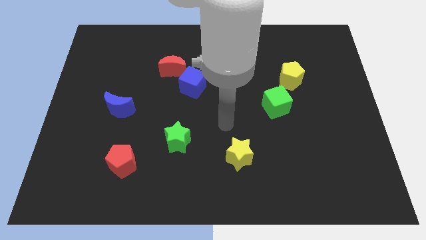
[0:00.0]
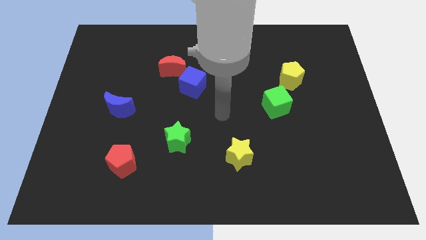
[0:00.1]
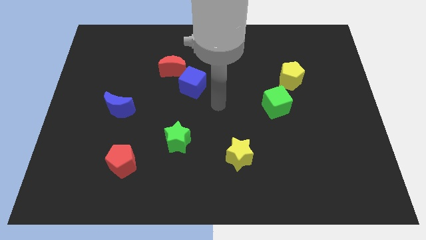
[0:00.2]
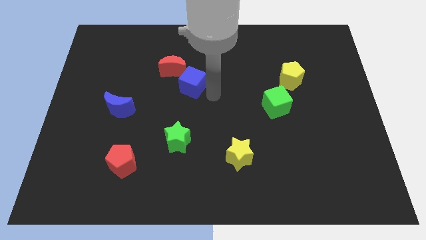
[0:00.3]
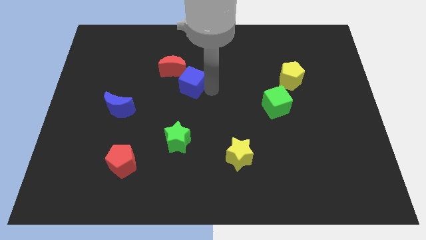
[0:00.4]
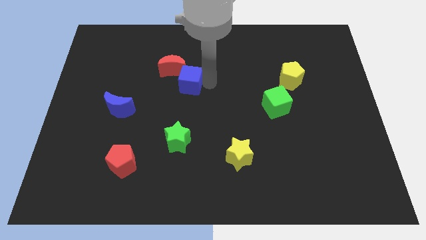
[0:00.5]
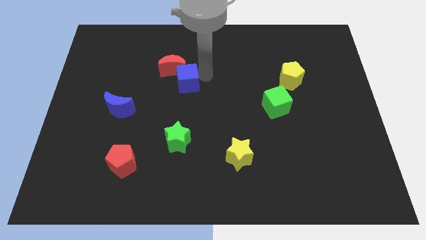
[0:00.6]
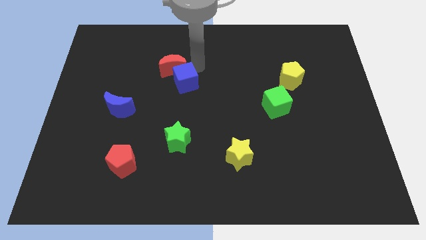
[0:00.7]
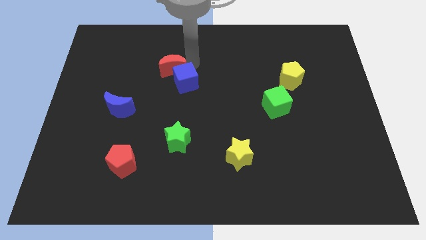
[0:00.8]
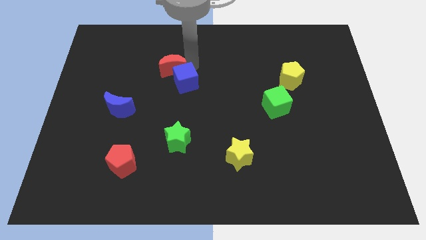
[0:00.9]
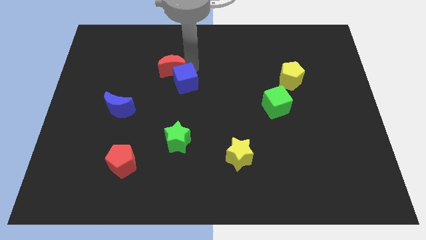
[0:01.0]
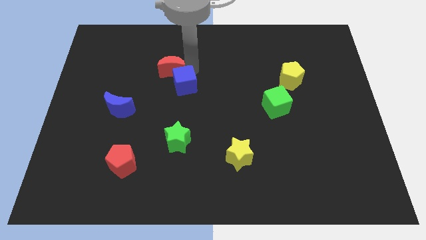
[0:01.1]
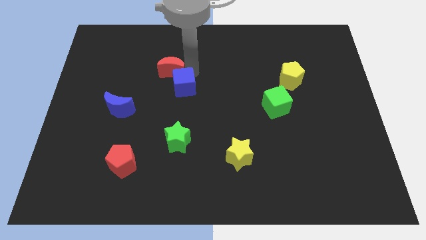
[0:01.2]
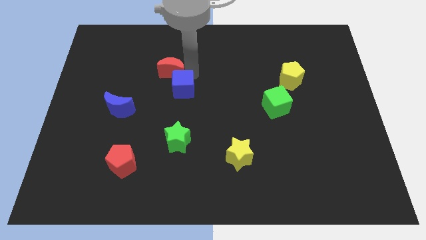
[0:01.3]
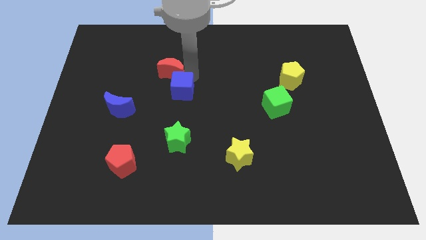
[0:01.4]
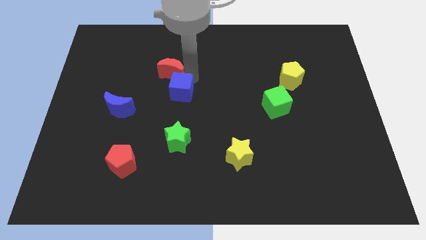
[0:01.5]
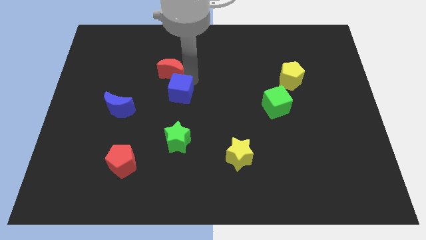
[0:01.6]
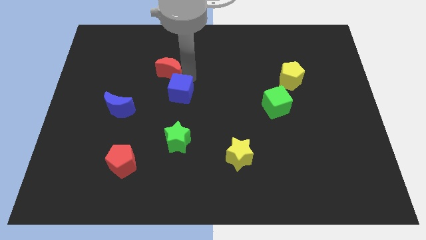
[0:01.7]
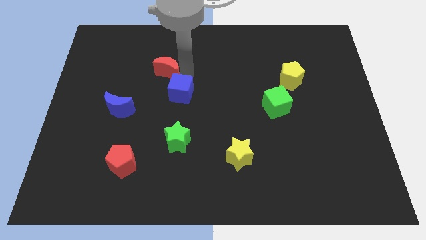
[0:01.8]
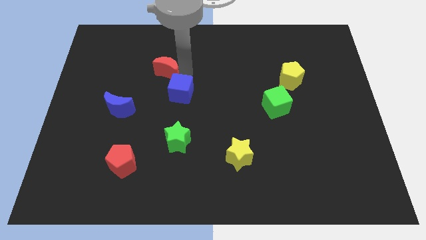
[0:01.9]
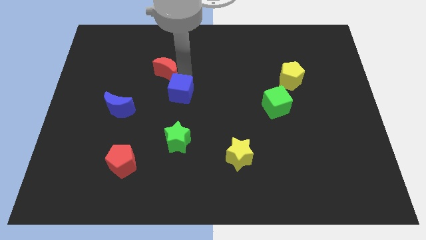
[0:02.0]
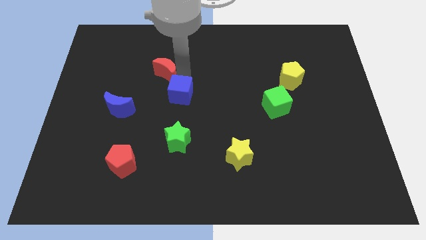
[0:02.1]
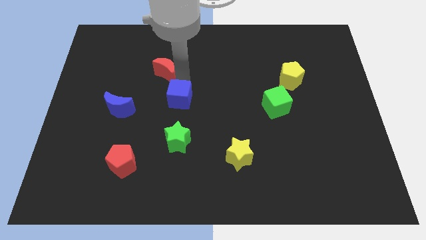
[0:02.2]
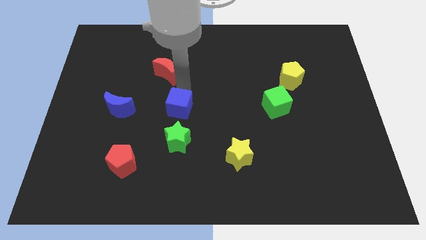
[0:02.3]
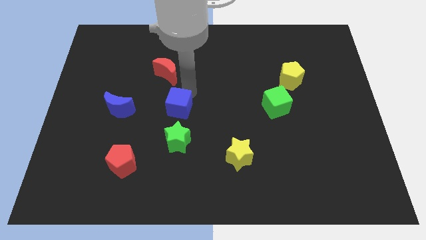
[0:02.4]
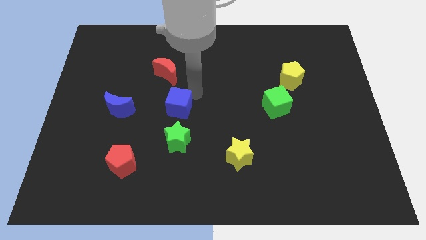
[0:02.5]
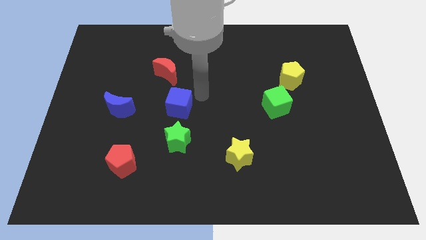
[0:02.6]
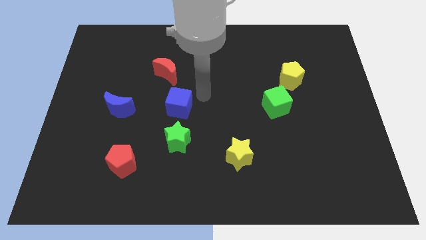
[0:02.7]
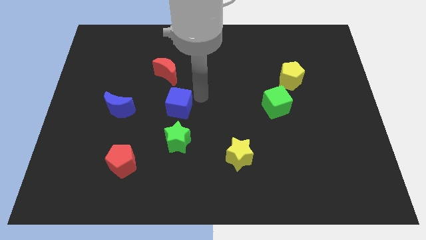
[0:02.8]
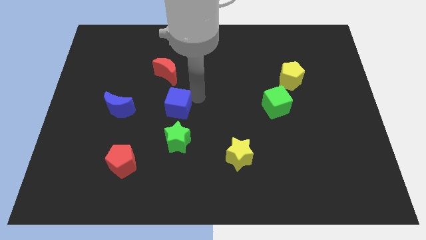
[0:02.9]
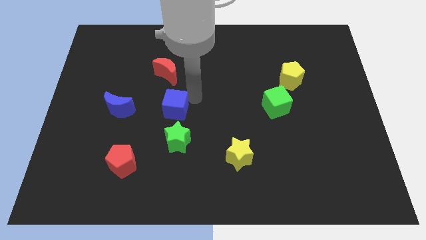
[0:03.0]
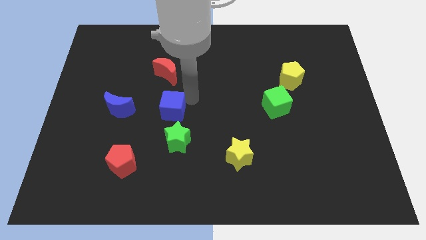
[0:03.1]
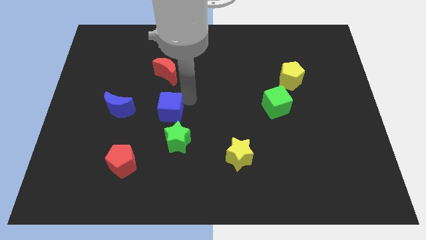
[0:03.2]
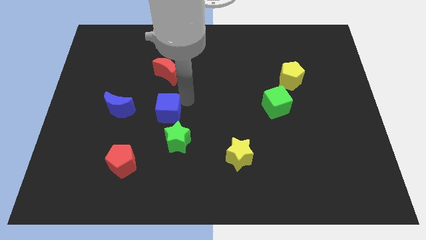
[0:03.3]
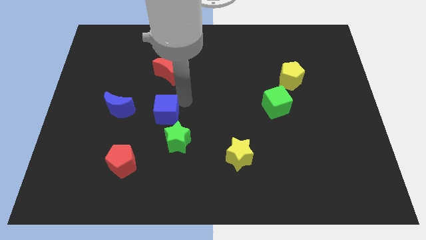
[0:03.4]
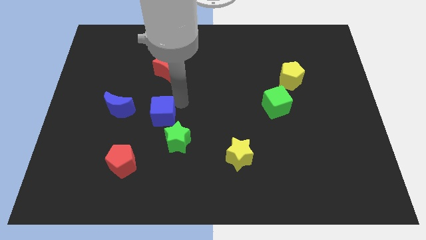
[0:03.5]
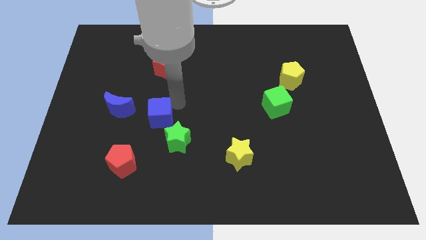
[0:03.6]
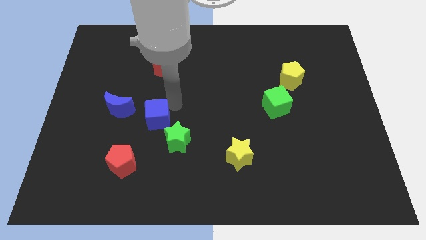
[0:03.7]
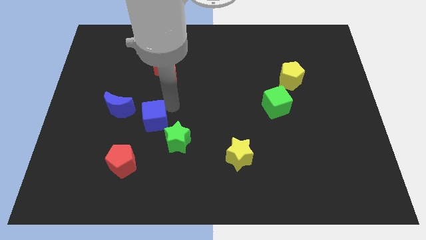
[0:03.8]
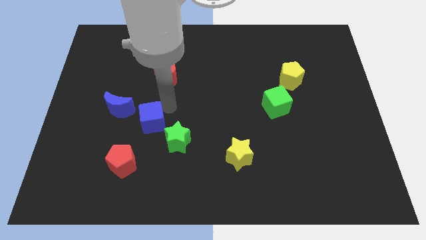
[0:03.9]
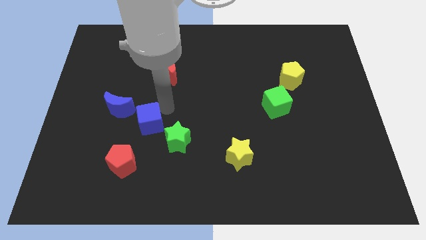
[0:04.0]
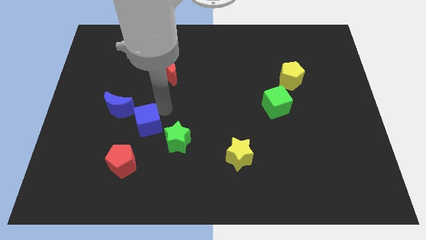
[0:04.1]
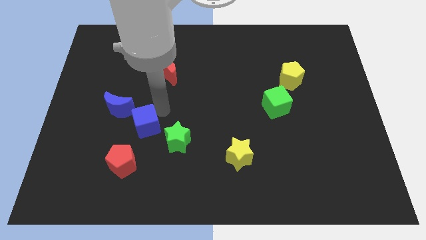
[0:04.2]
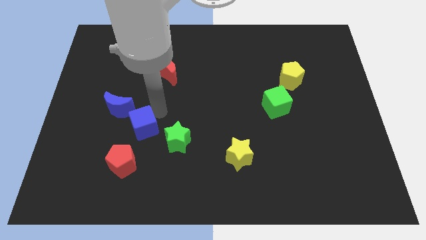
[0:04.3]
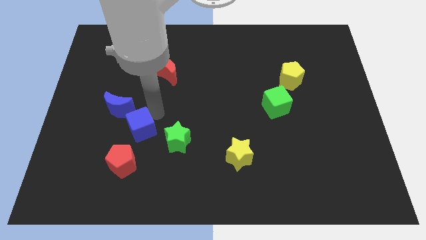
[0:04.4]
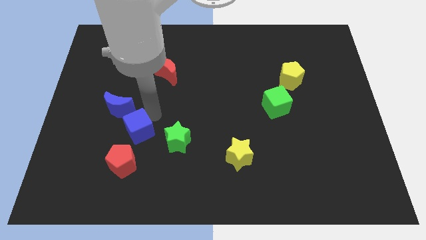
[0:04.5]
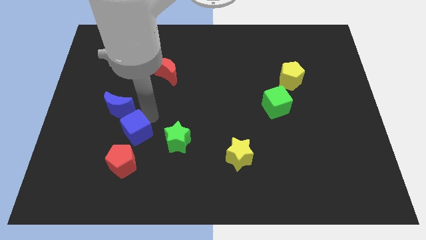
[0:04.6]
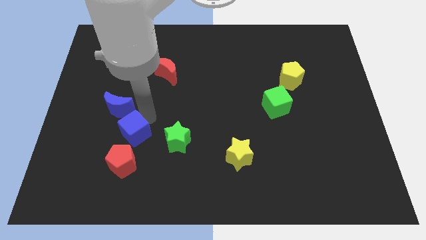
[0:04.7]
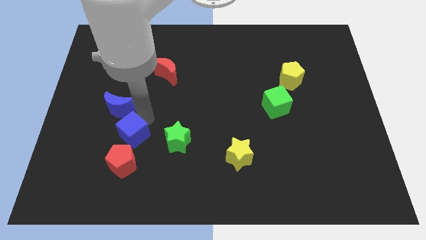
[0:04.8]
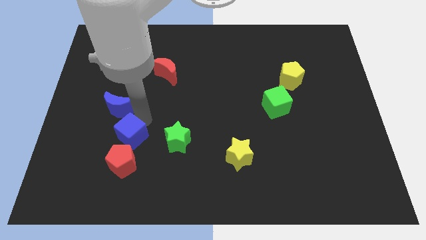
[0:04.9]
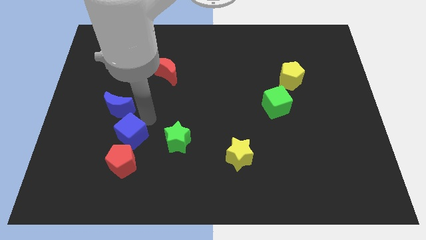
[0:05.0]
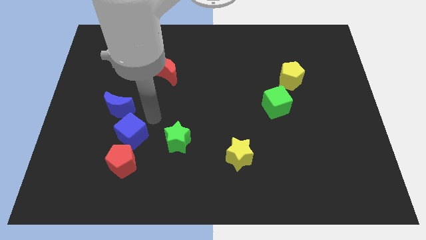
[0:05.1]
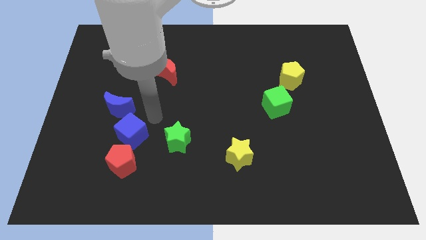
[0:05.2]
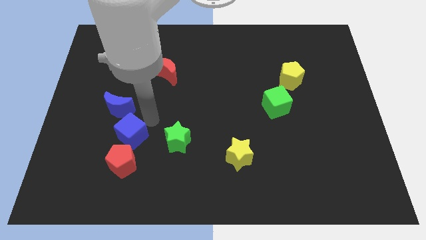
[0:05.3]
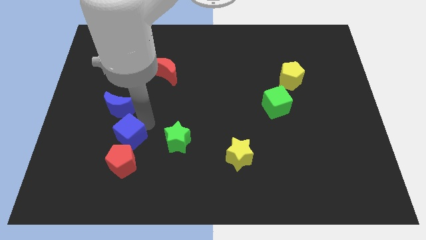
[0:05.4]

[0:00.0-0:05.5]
push the blue cube downwards and left diagonally

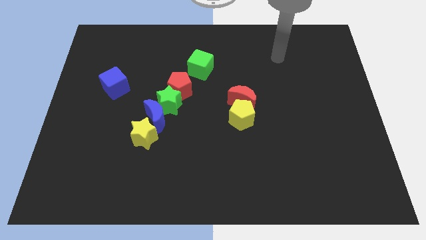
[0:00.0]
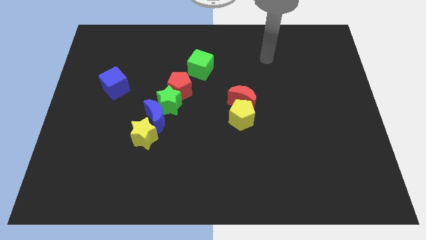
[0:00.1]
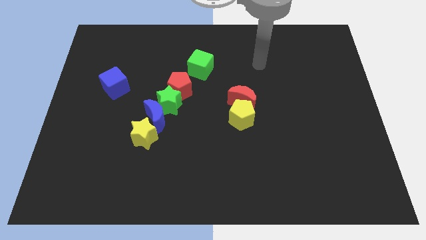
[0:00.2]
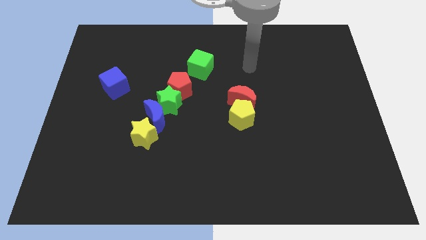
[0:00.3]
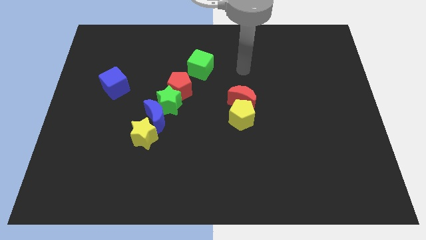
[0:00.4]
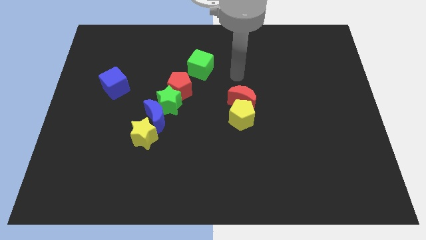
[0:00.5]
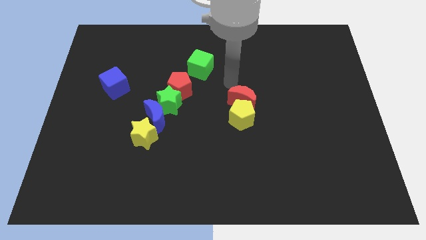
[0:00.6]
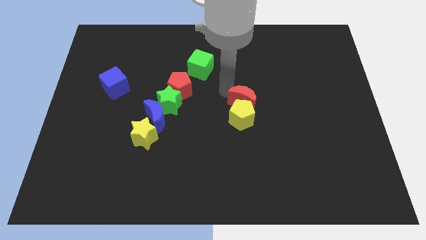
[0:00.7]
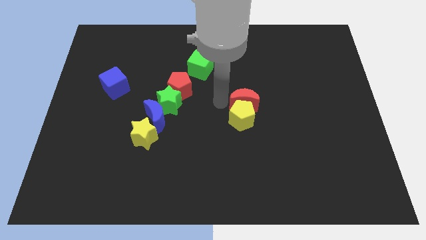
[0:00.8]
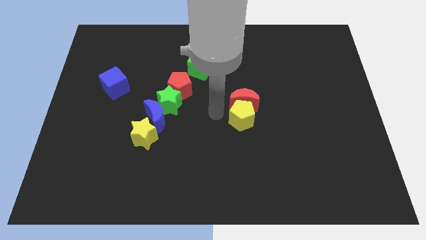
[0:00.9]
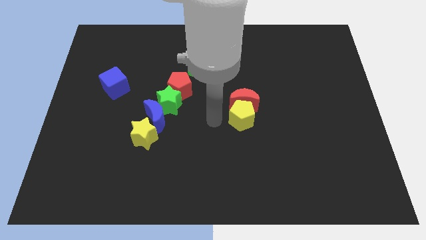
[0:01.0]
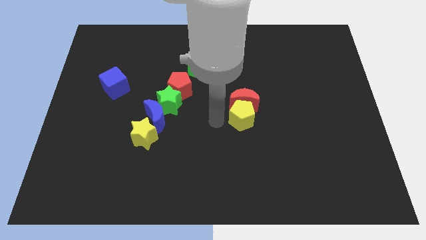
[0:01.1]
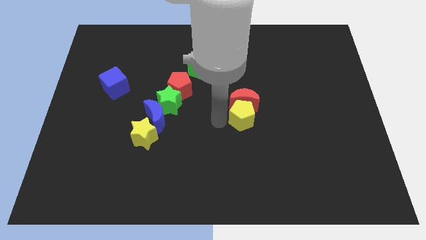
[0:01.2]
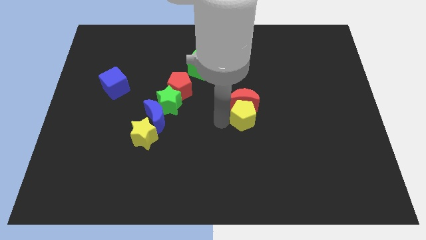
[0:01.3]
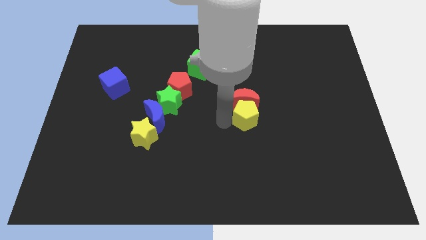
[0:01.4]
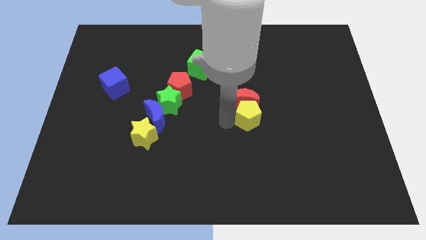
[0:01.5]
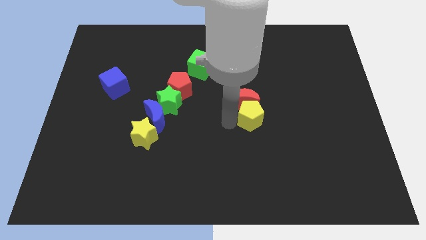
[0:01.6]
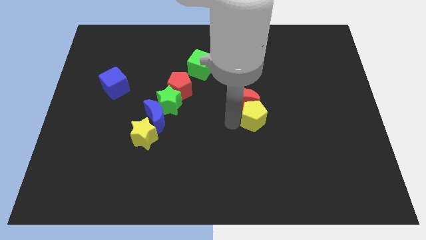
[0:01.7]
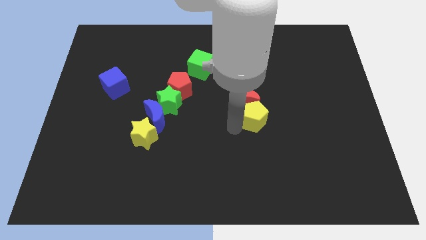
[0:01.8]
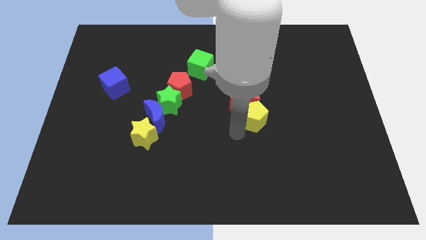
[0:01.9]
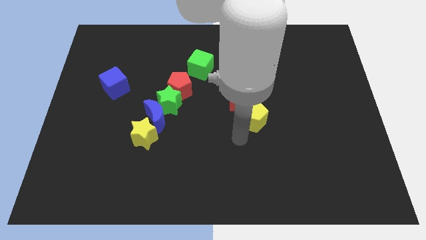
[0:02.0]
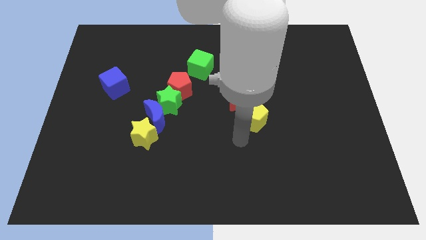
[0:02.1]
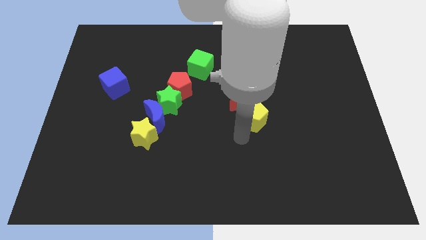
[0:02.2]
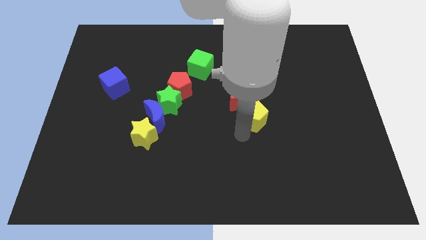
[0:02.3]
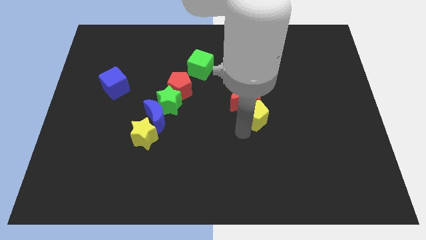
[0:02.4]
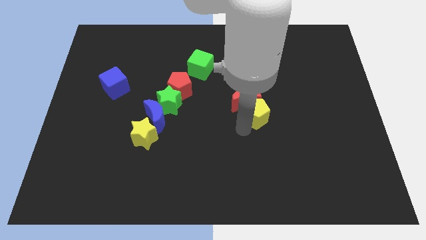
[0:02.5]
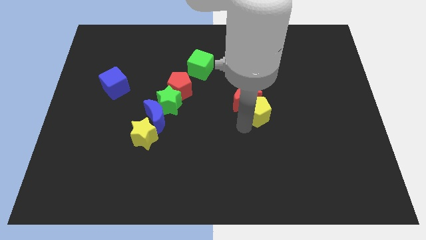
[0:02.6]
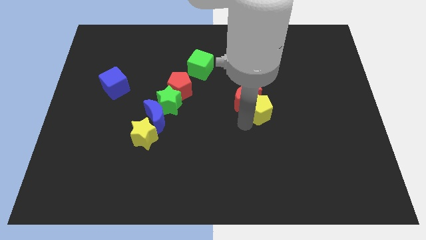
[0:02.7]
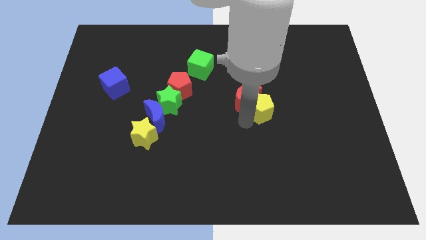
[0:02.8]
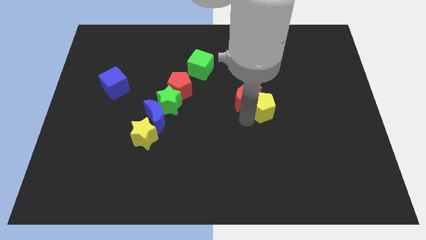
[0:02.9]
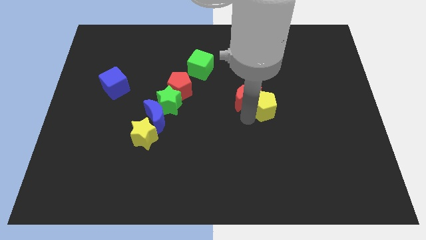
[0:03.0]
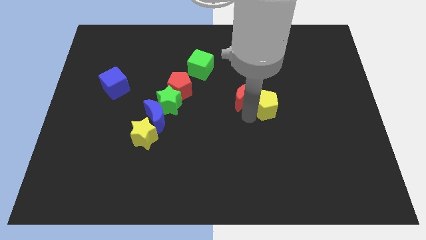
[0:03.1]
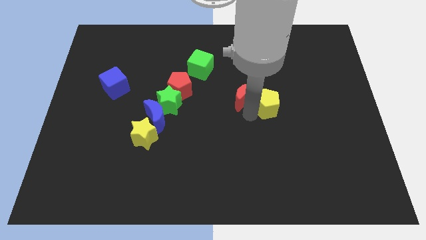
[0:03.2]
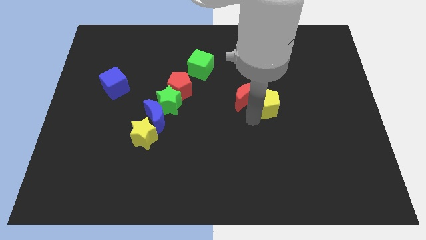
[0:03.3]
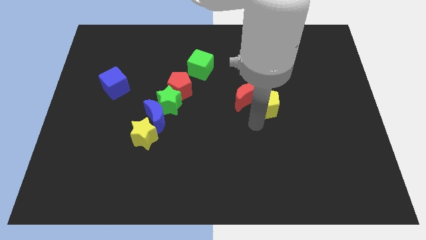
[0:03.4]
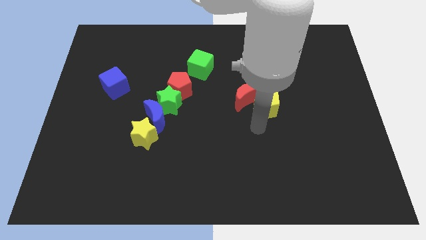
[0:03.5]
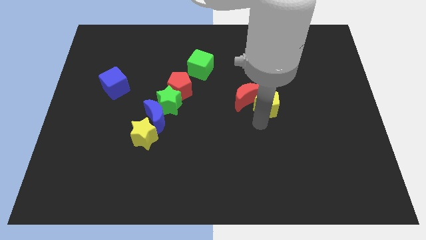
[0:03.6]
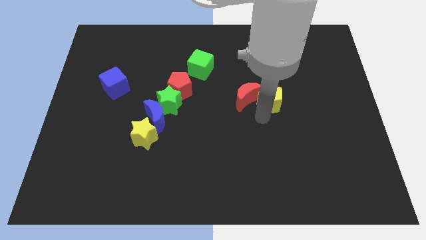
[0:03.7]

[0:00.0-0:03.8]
slightly move the yellow pentagon up and then to the right
